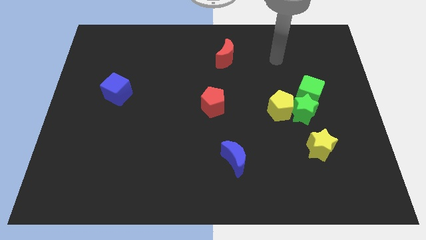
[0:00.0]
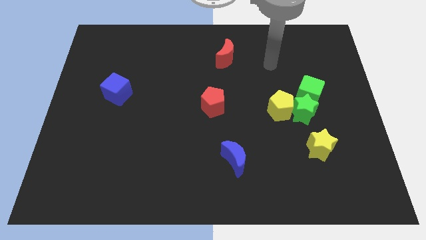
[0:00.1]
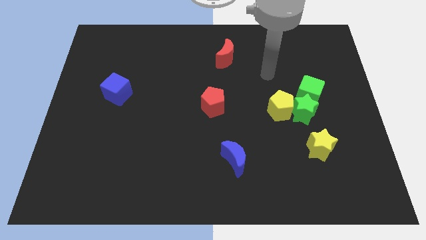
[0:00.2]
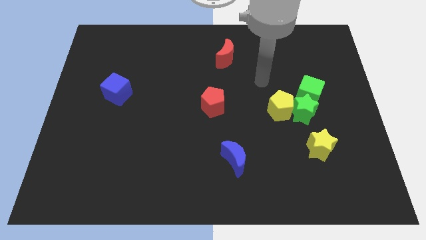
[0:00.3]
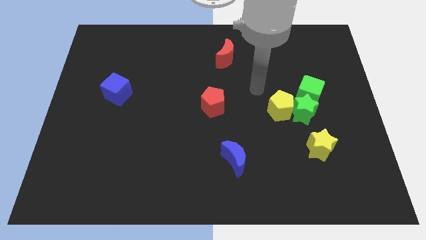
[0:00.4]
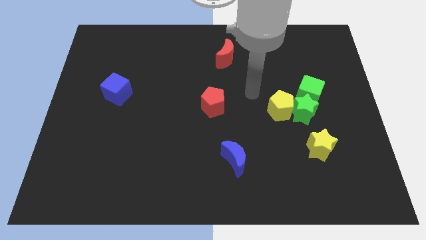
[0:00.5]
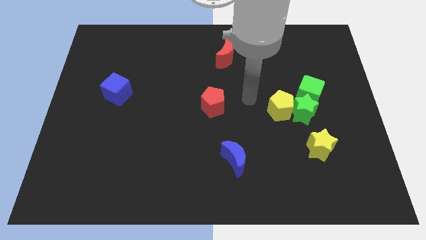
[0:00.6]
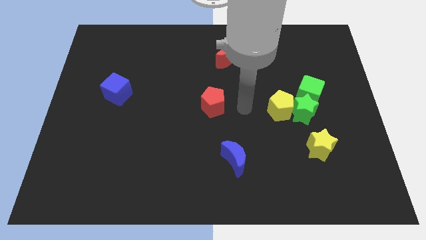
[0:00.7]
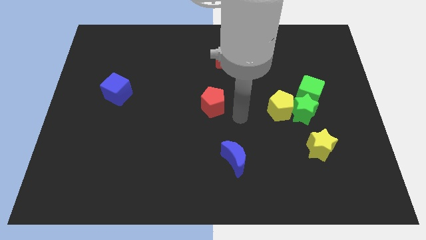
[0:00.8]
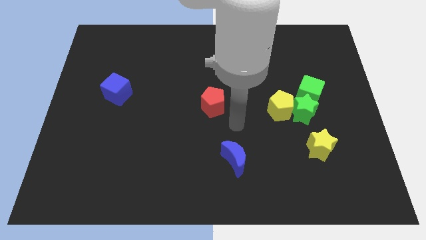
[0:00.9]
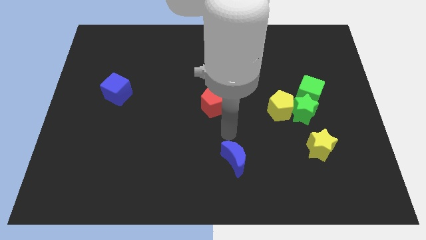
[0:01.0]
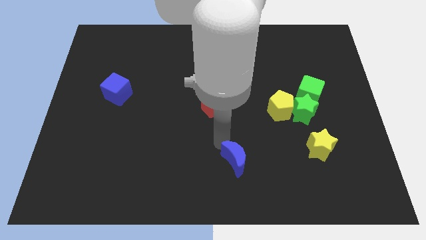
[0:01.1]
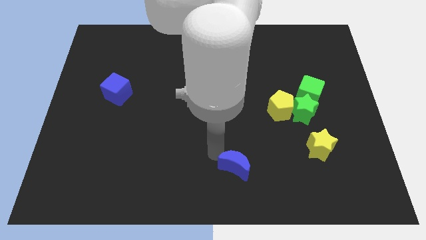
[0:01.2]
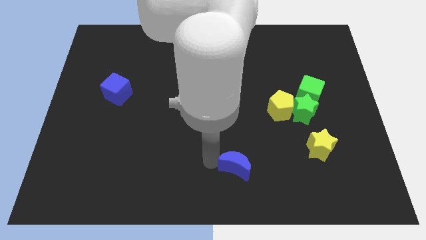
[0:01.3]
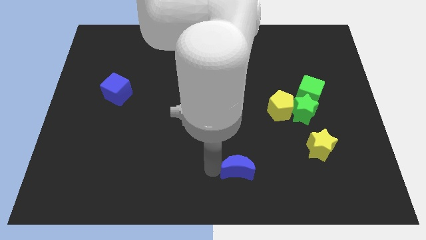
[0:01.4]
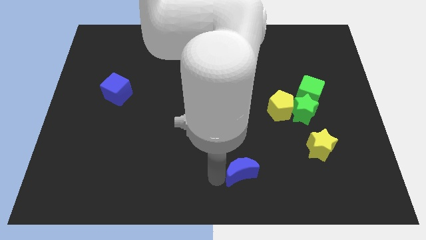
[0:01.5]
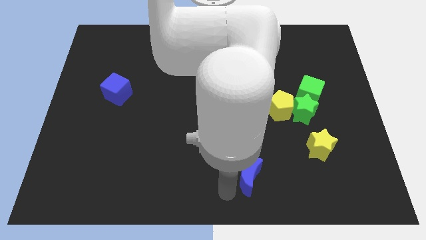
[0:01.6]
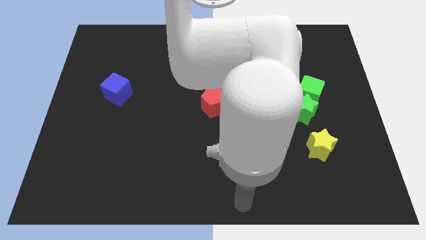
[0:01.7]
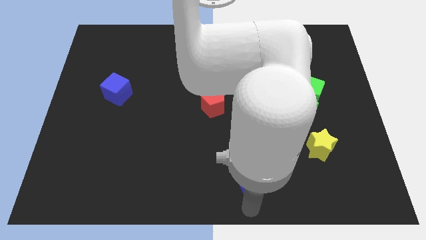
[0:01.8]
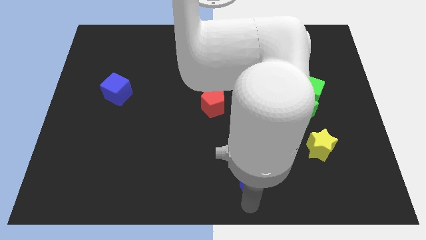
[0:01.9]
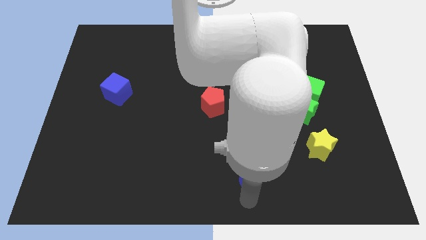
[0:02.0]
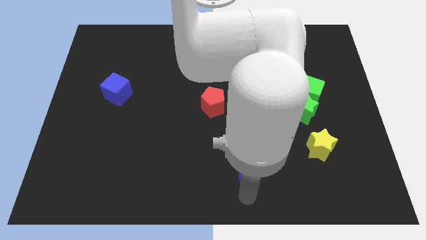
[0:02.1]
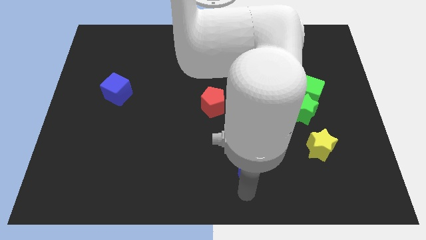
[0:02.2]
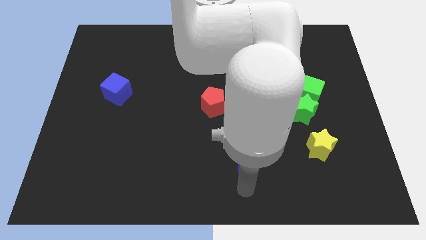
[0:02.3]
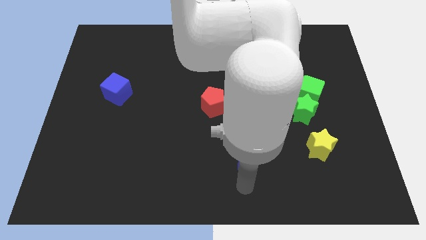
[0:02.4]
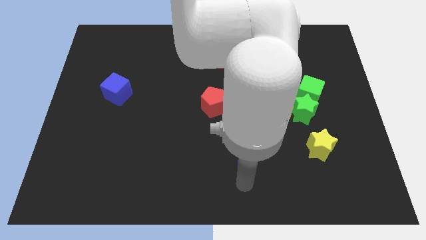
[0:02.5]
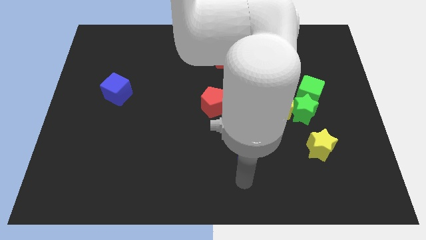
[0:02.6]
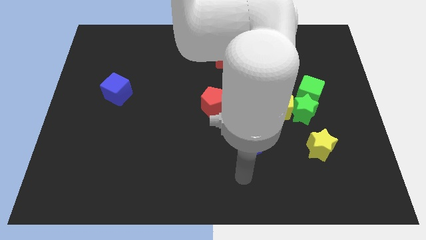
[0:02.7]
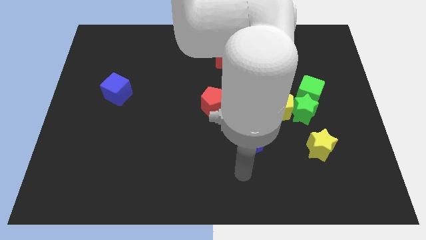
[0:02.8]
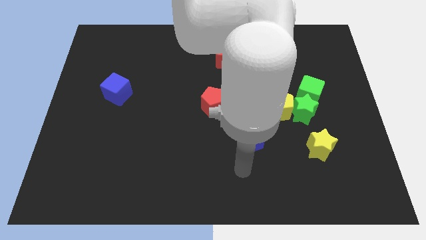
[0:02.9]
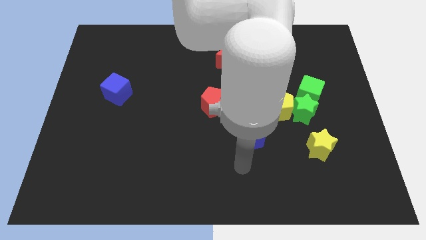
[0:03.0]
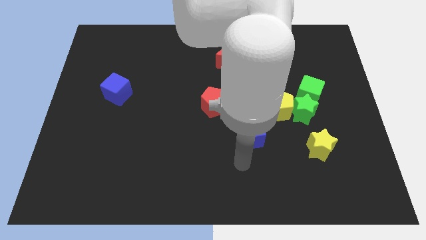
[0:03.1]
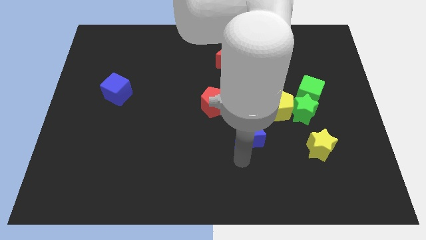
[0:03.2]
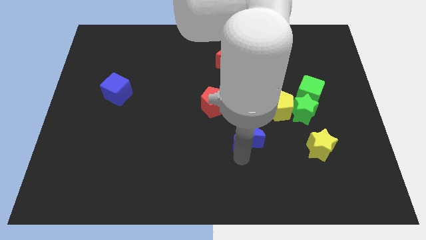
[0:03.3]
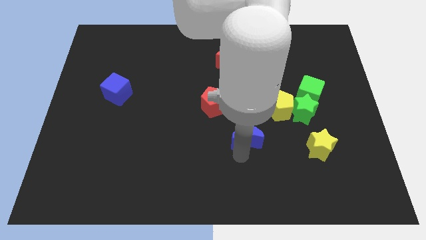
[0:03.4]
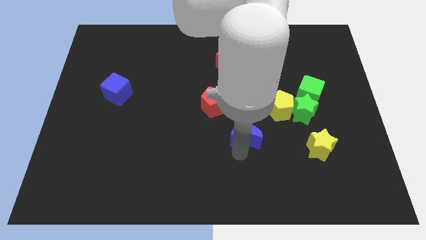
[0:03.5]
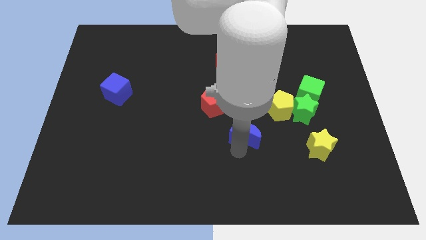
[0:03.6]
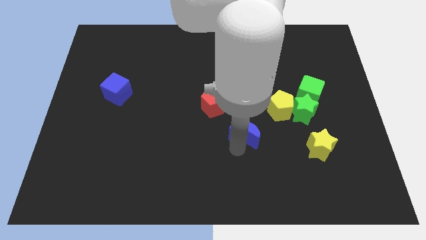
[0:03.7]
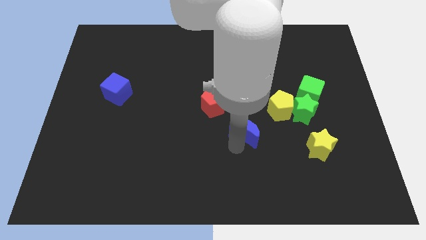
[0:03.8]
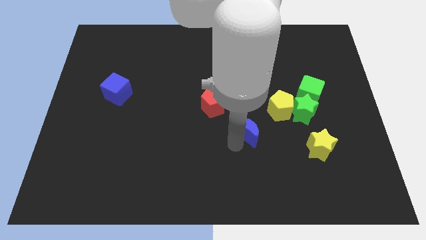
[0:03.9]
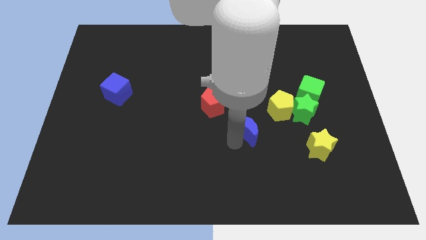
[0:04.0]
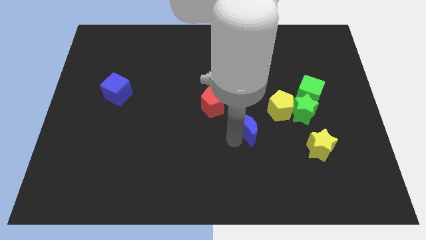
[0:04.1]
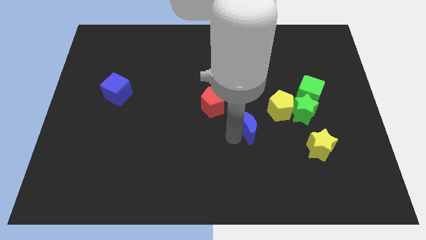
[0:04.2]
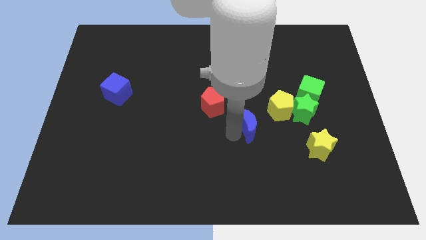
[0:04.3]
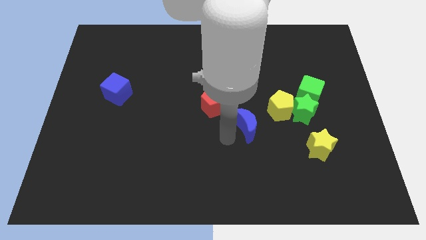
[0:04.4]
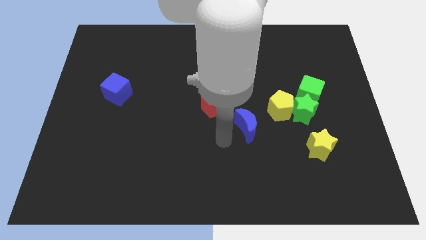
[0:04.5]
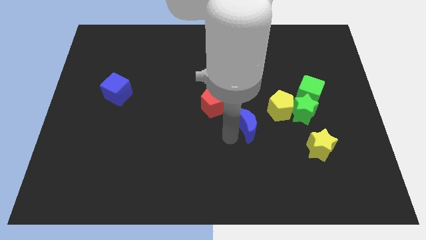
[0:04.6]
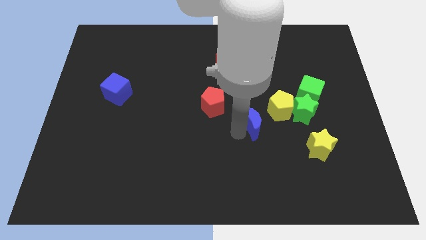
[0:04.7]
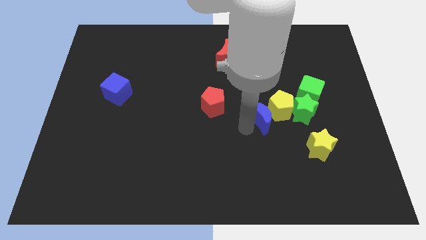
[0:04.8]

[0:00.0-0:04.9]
move the blue moon to the yellow pentagon

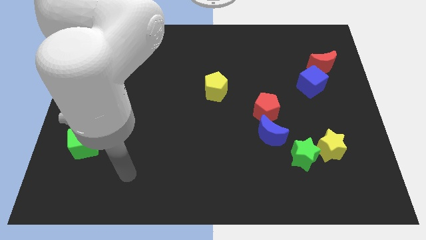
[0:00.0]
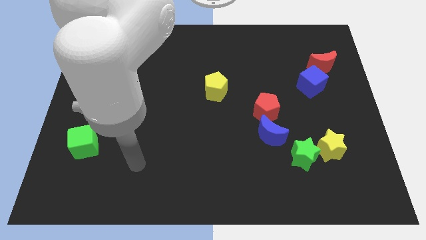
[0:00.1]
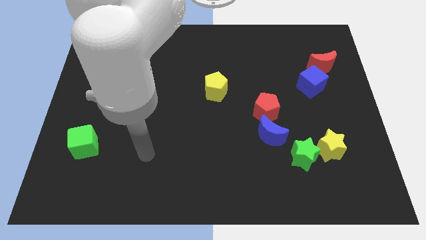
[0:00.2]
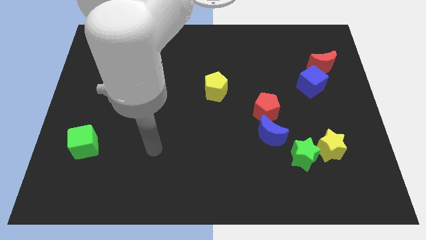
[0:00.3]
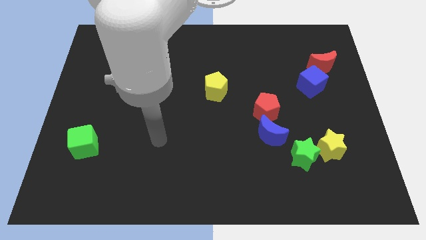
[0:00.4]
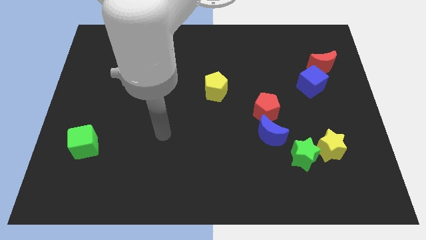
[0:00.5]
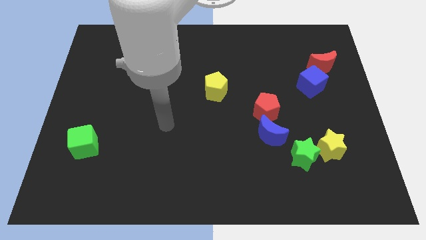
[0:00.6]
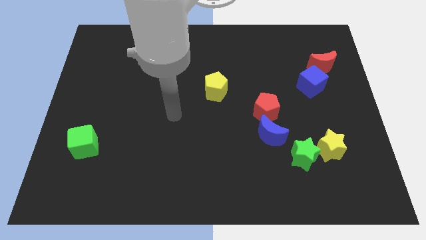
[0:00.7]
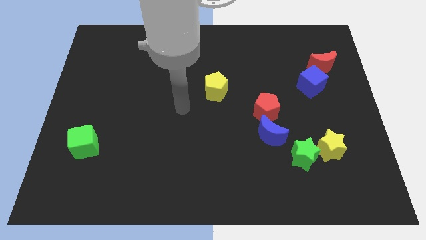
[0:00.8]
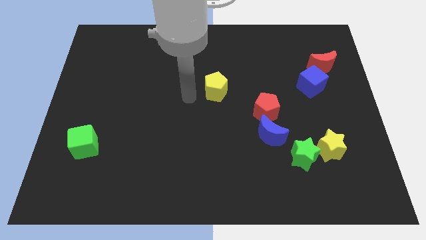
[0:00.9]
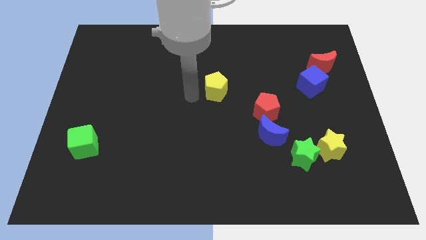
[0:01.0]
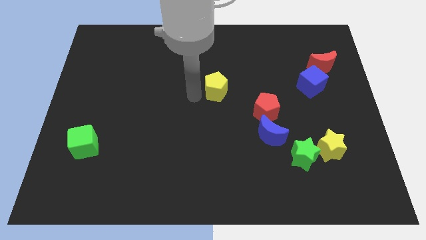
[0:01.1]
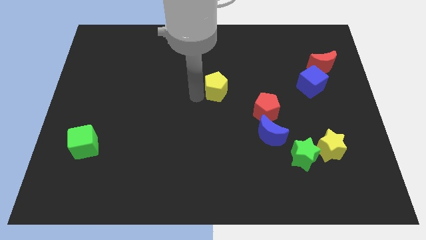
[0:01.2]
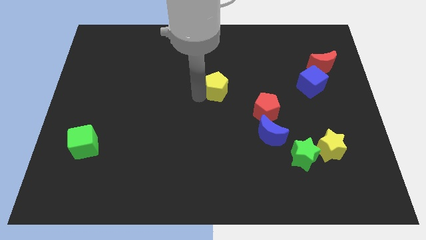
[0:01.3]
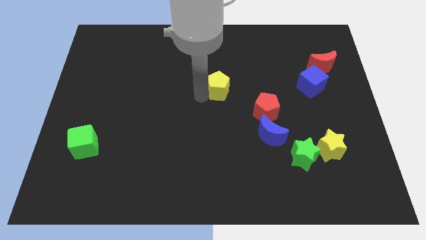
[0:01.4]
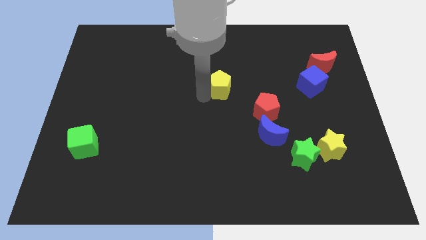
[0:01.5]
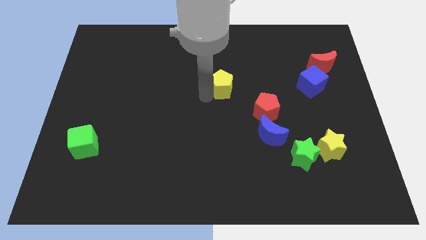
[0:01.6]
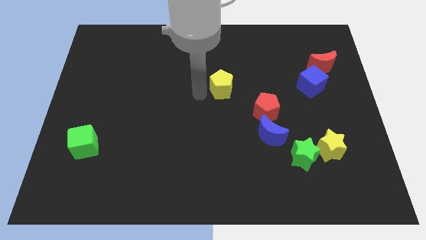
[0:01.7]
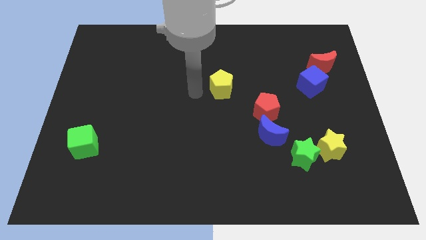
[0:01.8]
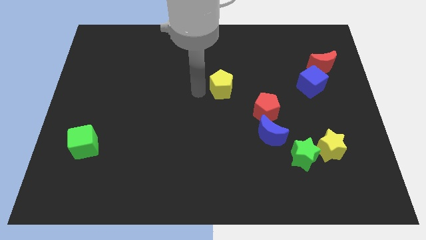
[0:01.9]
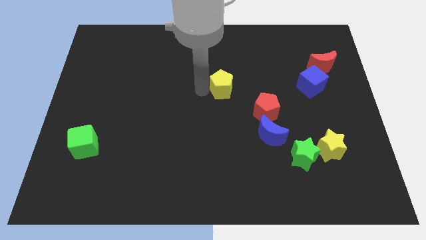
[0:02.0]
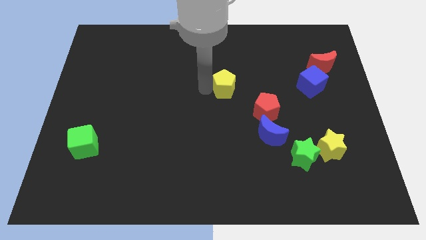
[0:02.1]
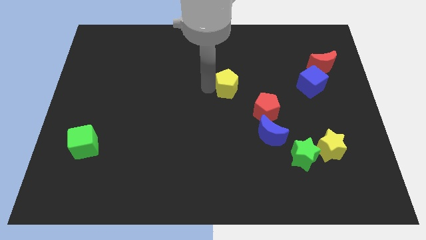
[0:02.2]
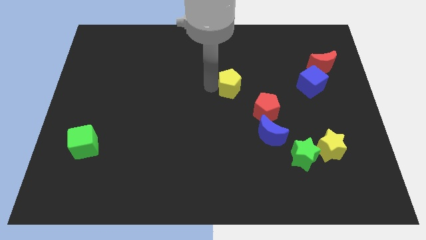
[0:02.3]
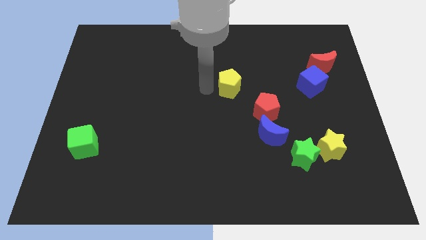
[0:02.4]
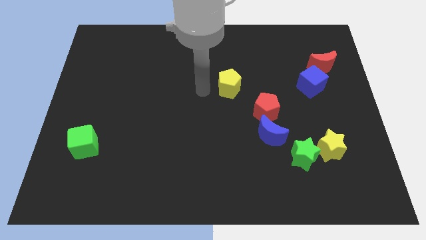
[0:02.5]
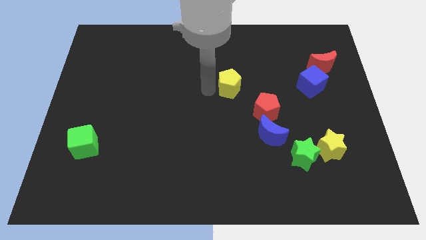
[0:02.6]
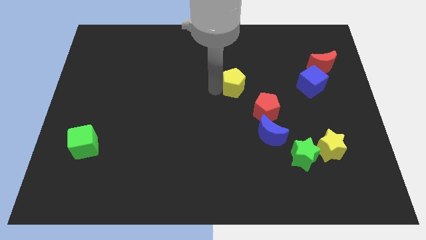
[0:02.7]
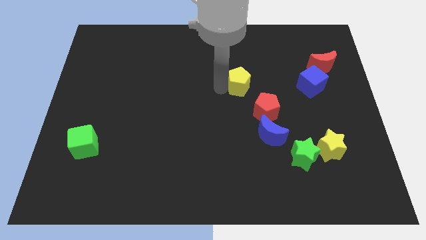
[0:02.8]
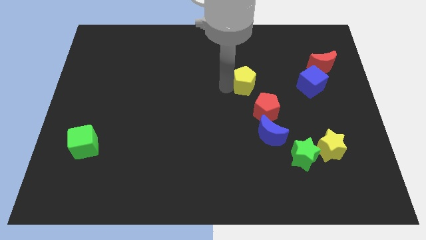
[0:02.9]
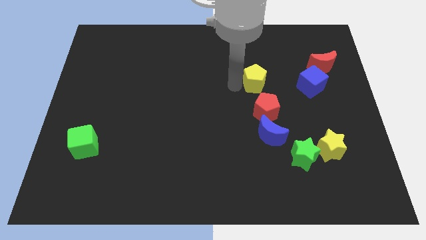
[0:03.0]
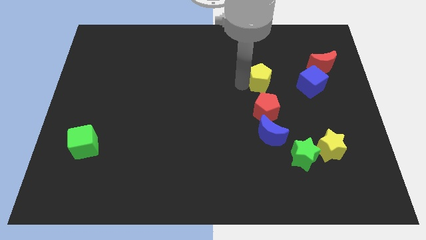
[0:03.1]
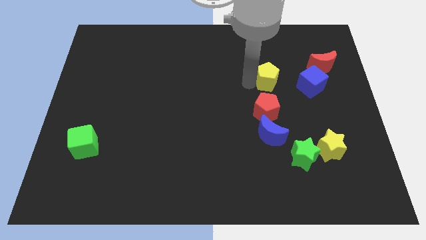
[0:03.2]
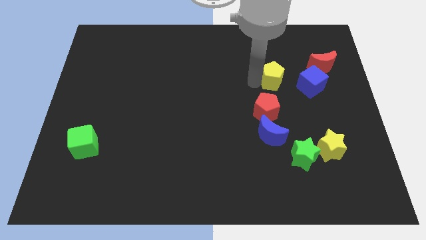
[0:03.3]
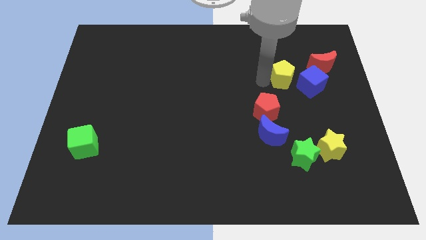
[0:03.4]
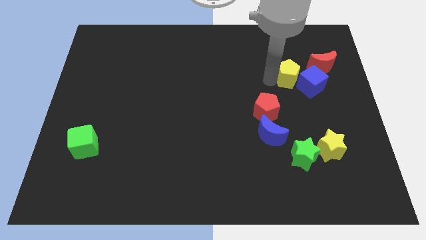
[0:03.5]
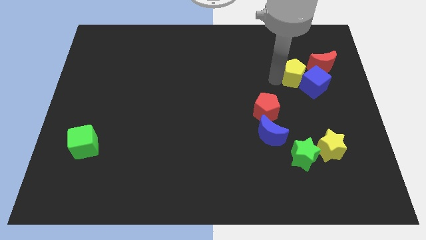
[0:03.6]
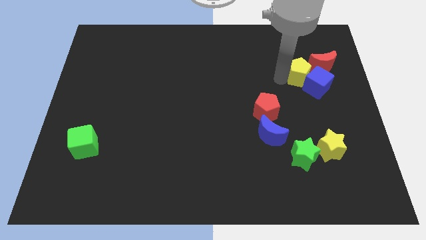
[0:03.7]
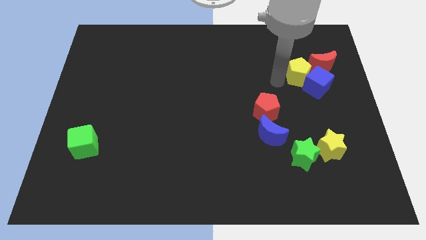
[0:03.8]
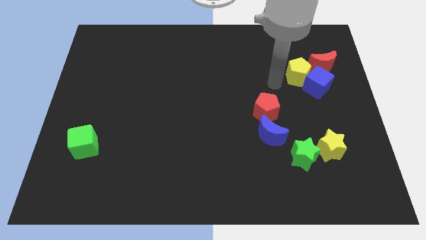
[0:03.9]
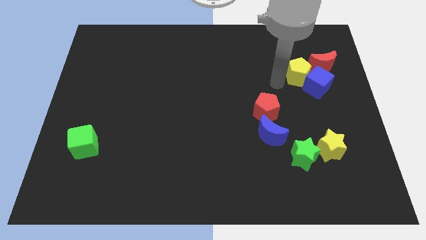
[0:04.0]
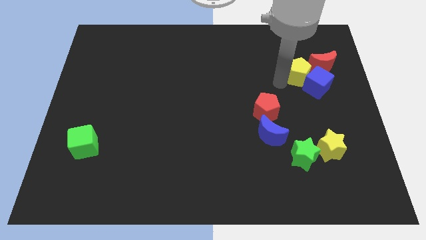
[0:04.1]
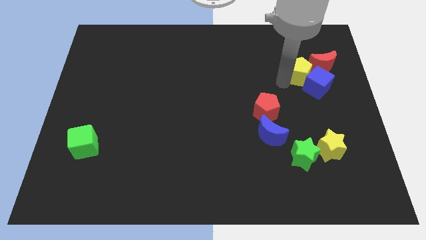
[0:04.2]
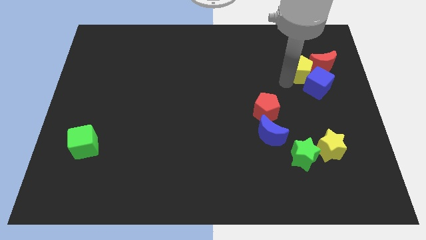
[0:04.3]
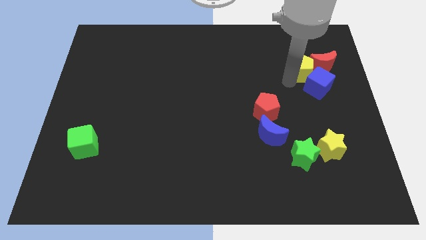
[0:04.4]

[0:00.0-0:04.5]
move the yellow pentagon close to the red moon
